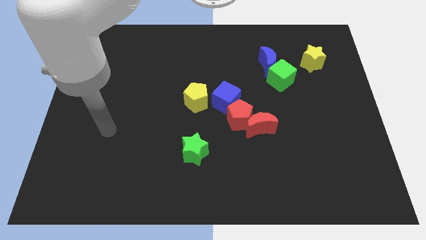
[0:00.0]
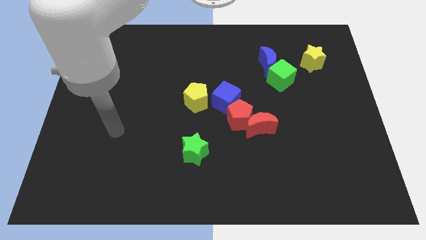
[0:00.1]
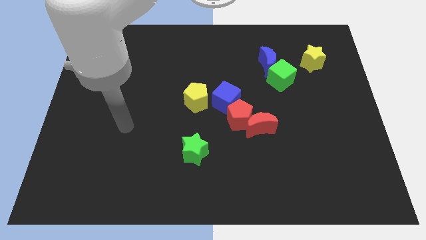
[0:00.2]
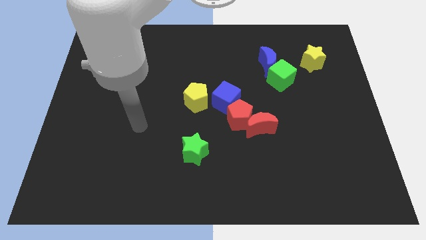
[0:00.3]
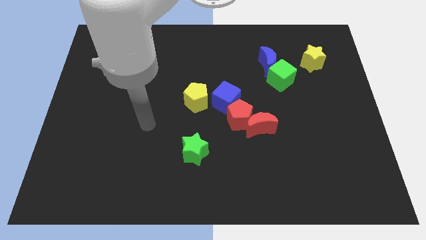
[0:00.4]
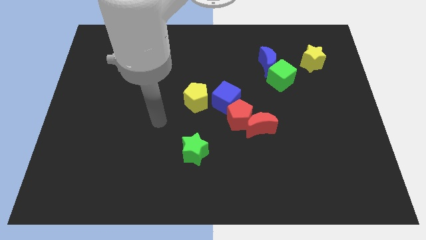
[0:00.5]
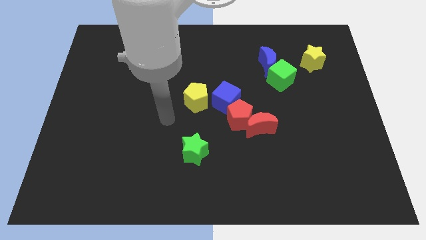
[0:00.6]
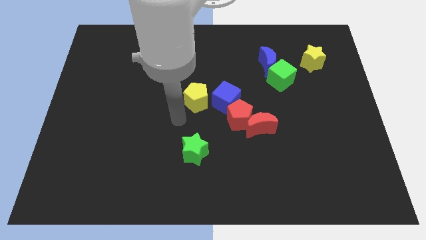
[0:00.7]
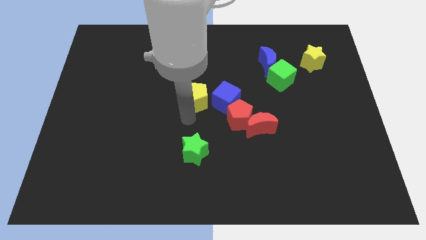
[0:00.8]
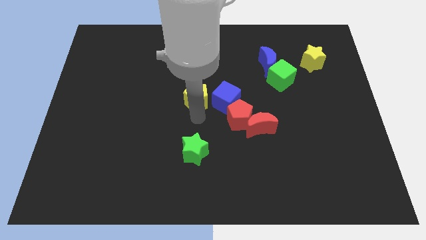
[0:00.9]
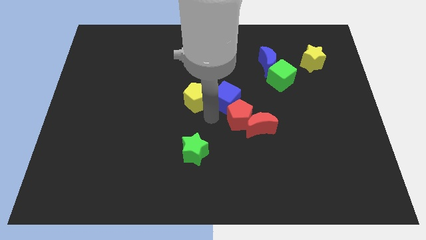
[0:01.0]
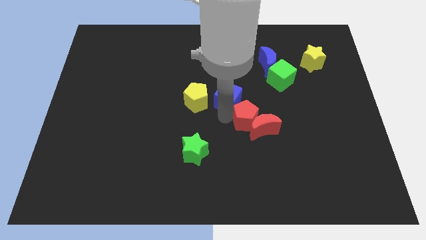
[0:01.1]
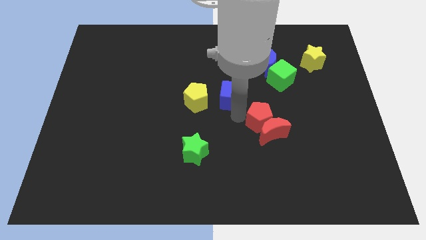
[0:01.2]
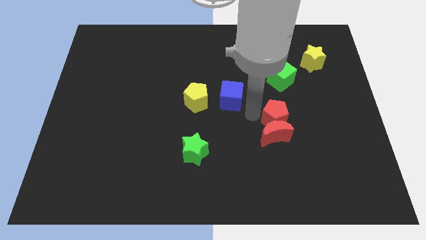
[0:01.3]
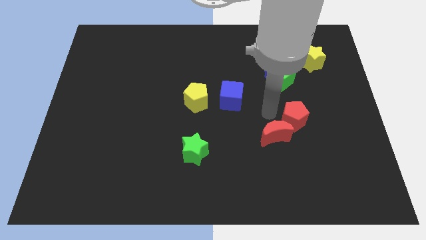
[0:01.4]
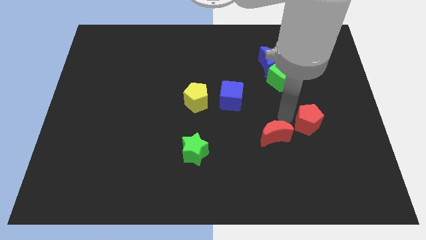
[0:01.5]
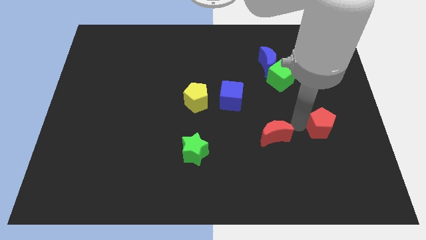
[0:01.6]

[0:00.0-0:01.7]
separate the red moon from the red pentagon

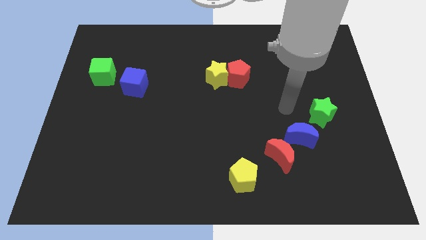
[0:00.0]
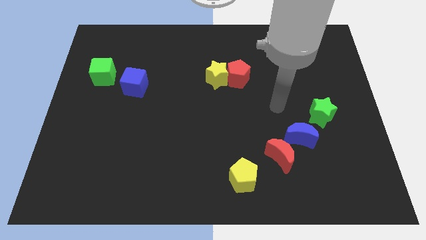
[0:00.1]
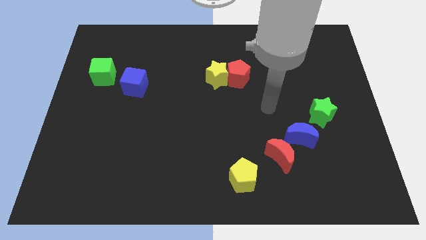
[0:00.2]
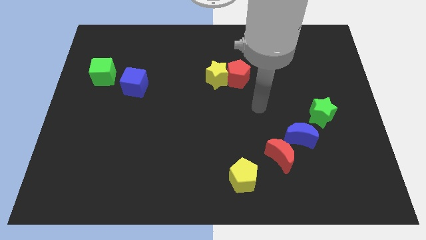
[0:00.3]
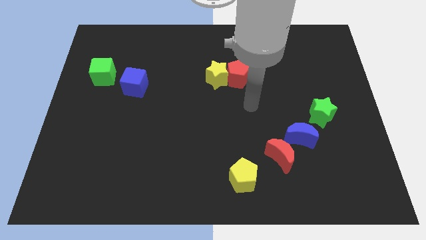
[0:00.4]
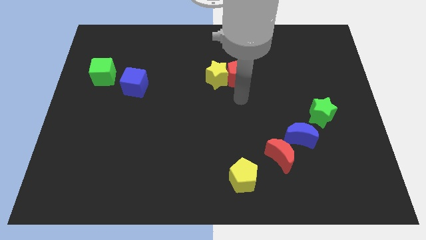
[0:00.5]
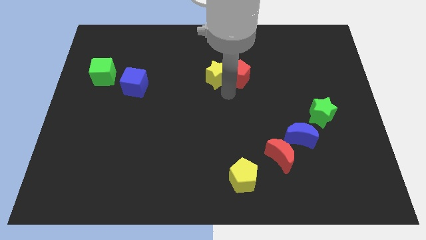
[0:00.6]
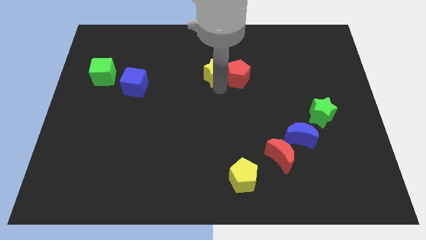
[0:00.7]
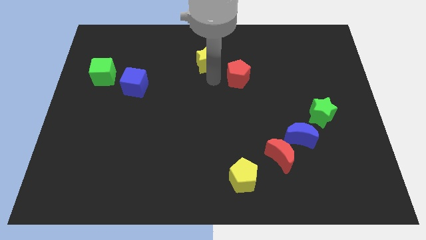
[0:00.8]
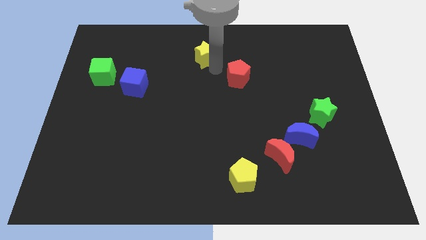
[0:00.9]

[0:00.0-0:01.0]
move the red pentagon away from the yellow star

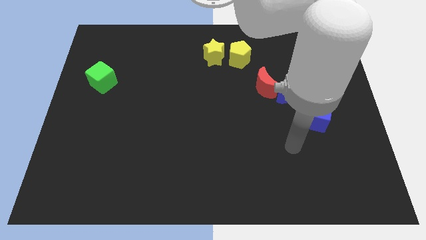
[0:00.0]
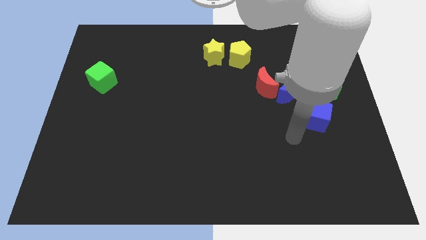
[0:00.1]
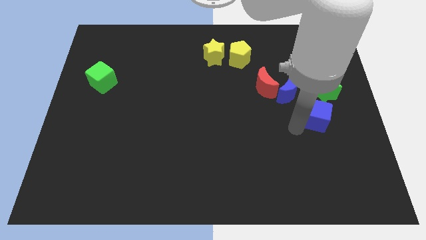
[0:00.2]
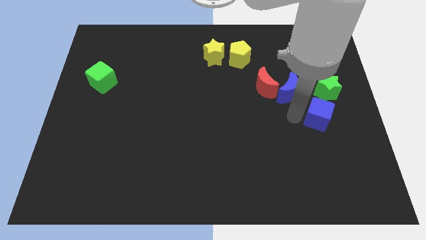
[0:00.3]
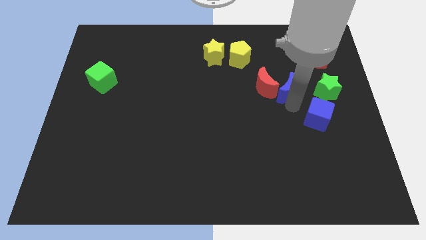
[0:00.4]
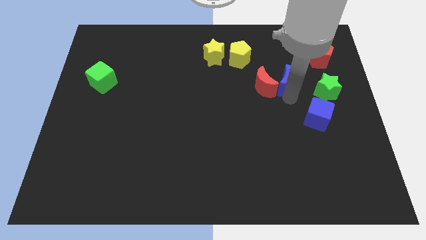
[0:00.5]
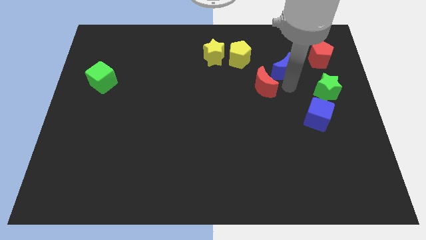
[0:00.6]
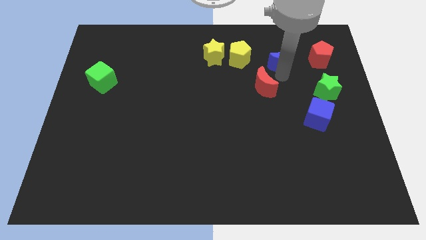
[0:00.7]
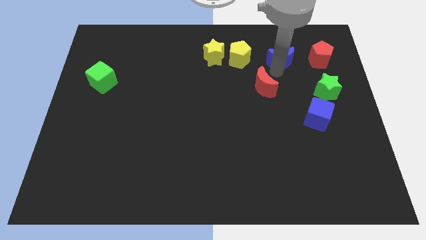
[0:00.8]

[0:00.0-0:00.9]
separate the red moon from the blue moon

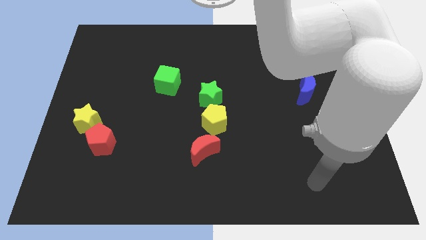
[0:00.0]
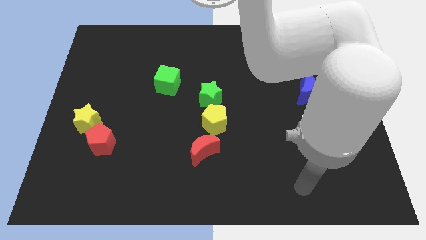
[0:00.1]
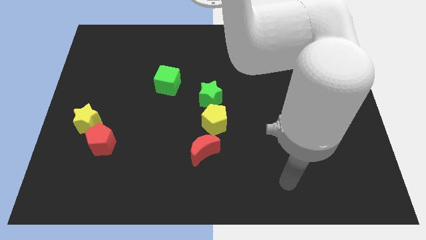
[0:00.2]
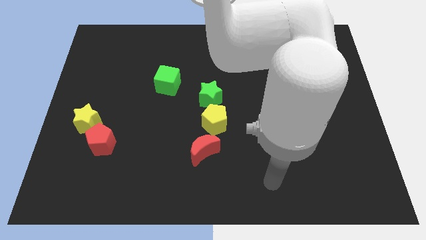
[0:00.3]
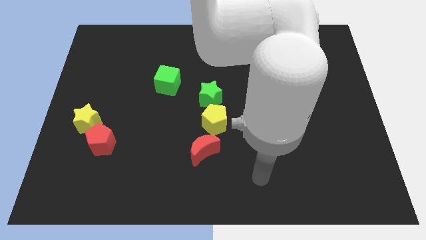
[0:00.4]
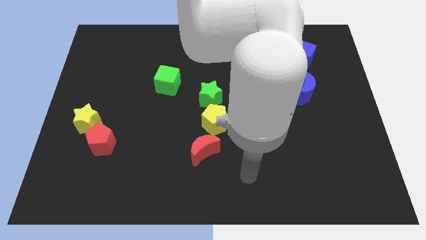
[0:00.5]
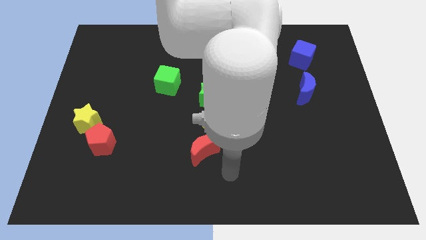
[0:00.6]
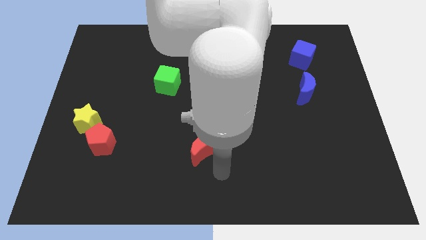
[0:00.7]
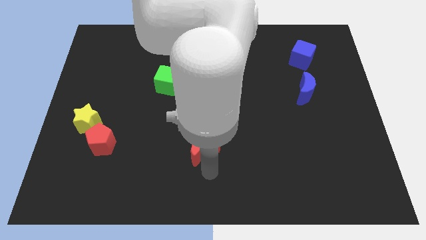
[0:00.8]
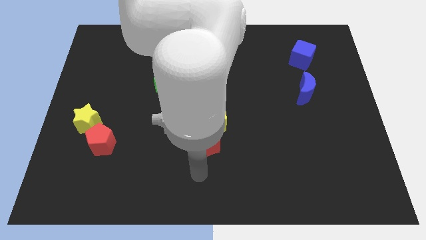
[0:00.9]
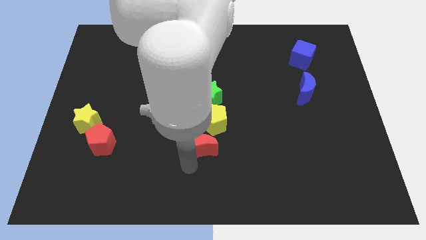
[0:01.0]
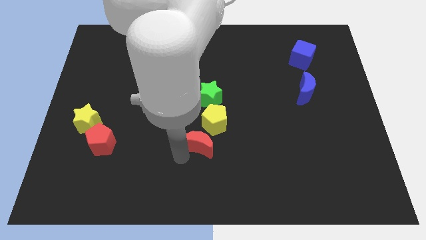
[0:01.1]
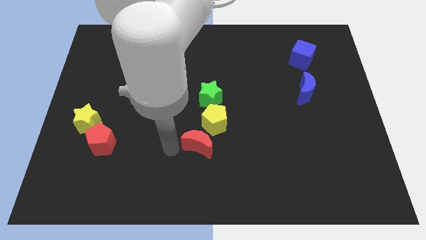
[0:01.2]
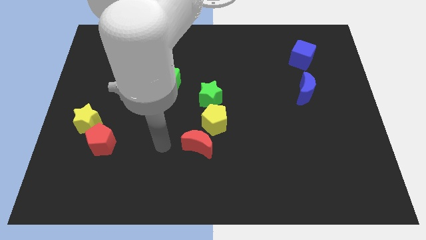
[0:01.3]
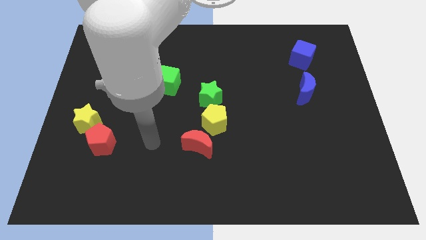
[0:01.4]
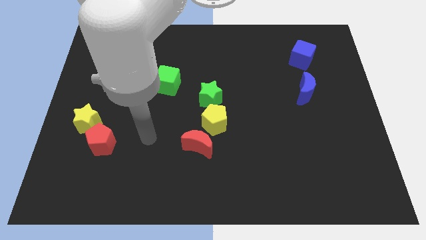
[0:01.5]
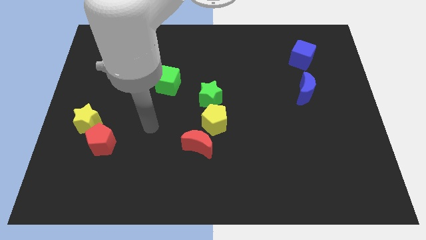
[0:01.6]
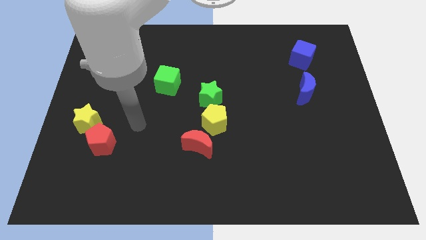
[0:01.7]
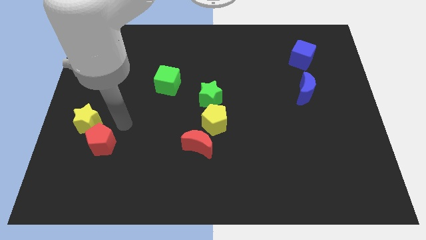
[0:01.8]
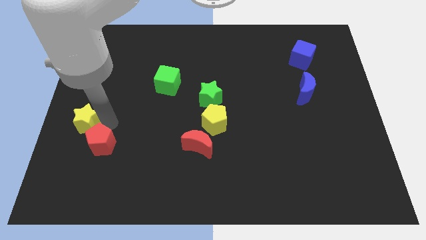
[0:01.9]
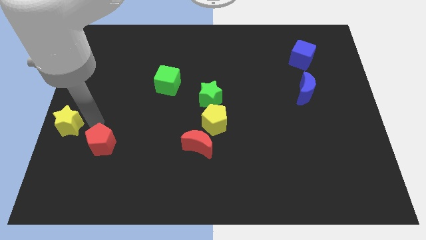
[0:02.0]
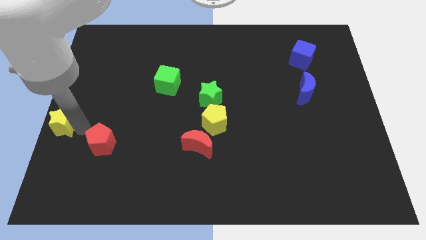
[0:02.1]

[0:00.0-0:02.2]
pull the red pentagon apart from the yellow star

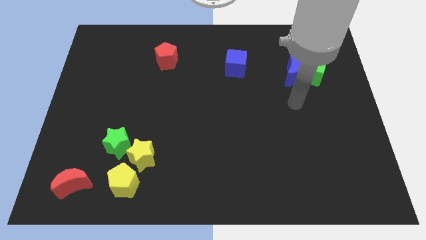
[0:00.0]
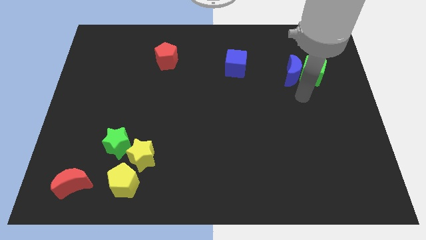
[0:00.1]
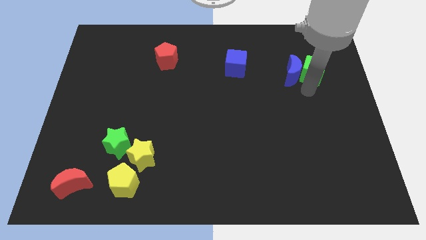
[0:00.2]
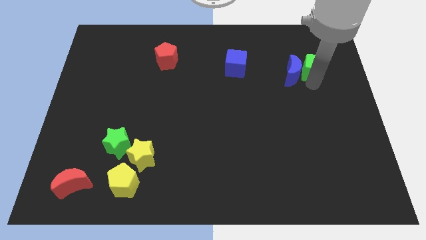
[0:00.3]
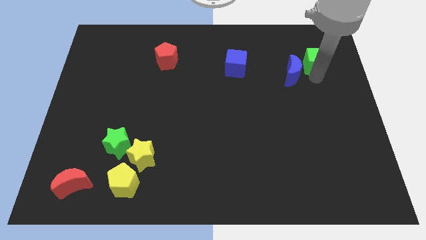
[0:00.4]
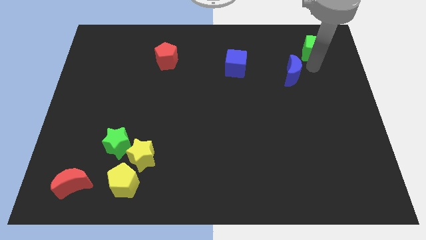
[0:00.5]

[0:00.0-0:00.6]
separate the blue moon from the green cube

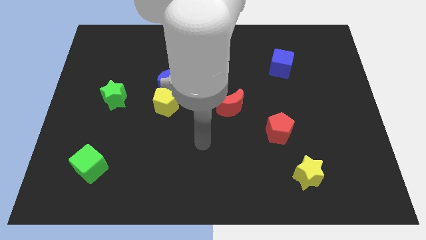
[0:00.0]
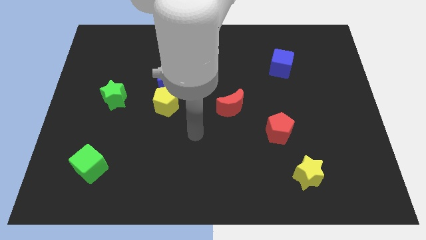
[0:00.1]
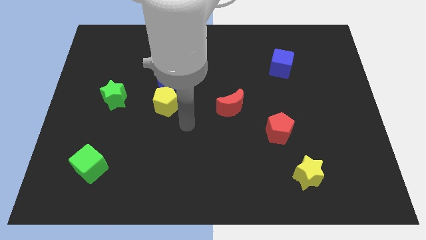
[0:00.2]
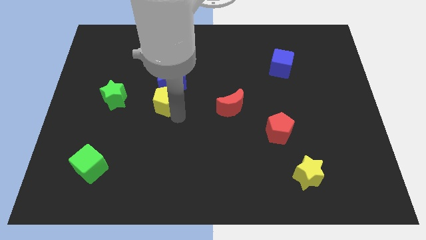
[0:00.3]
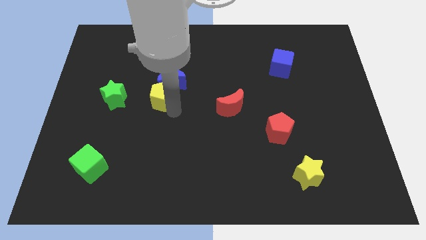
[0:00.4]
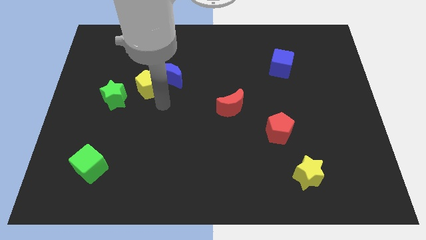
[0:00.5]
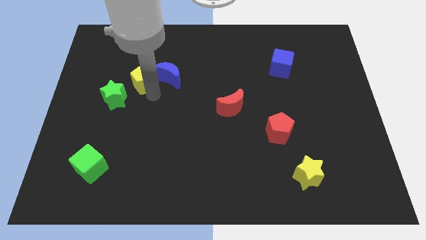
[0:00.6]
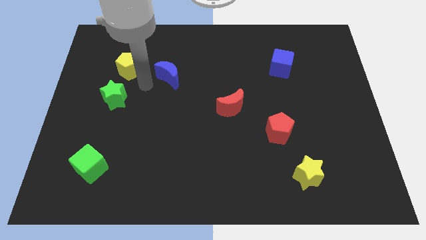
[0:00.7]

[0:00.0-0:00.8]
pull the blue moon apart from the yellow pentagon

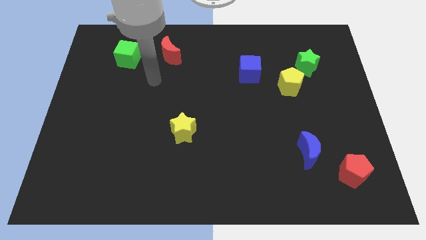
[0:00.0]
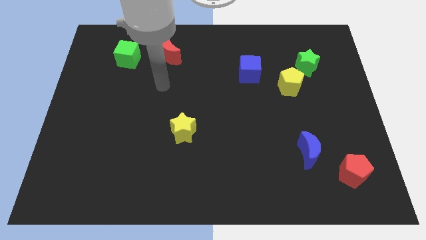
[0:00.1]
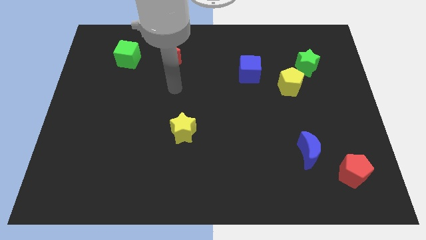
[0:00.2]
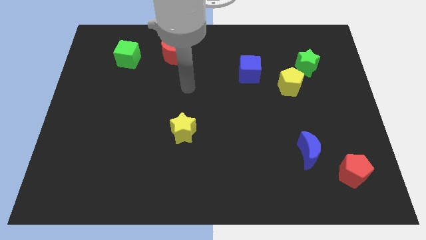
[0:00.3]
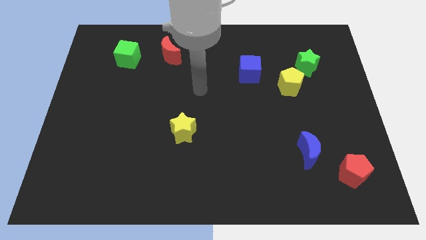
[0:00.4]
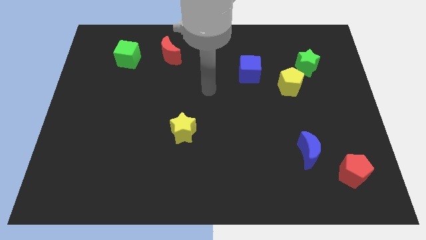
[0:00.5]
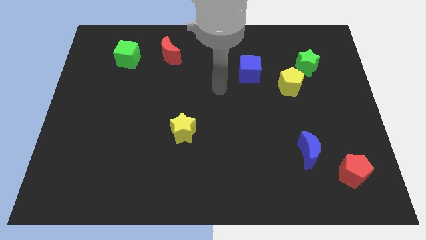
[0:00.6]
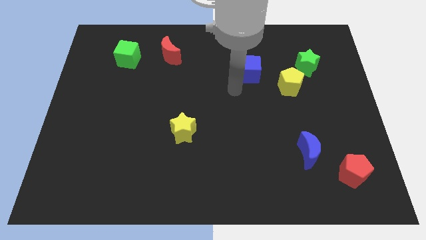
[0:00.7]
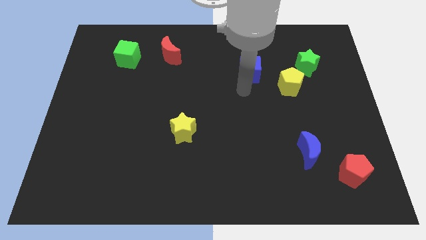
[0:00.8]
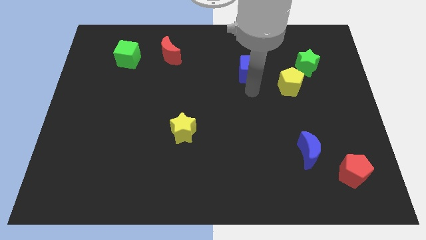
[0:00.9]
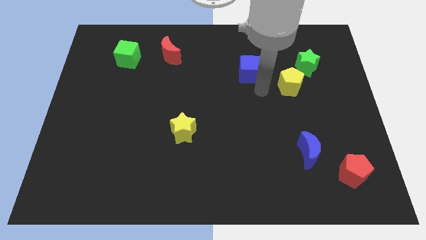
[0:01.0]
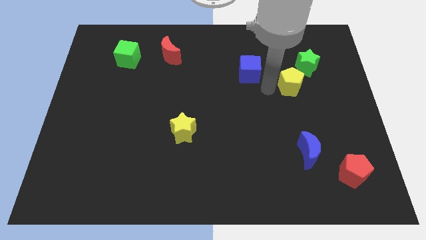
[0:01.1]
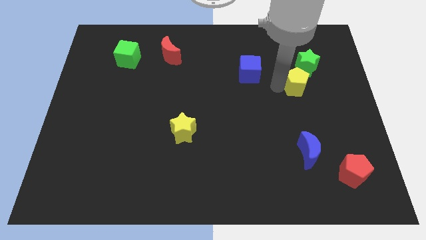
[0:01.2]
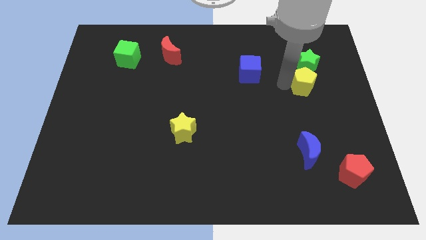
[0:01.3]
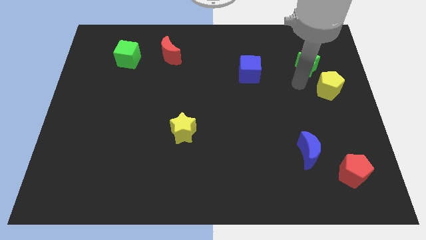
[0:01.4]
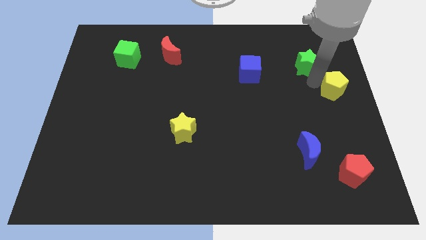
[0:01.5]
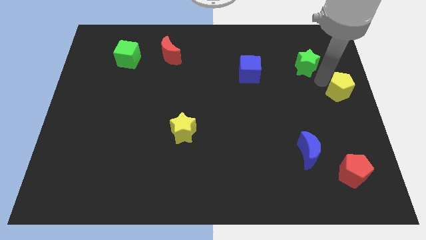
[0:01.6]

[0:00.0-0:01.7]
pull the green star apart from the yellow pentagon

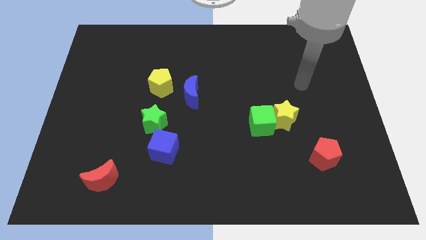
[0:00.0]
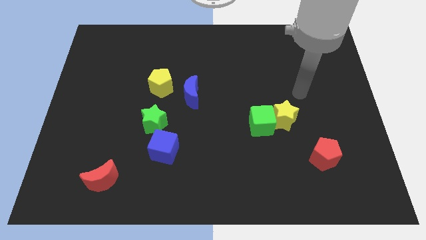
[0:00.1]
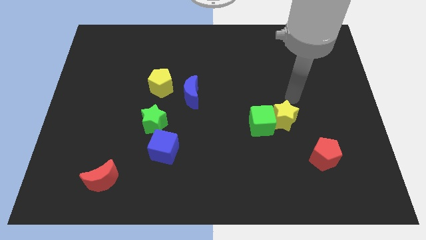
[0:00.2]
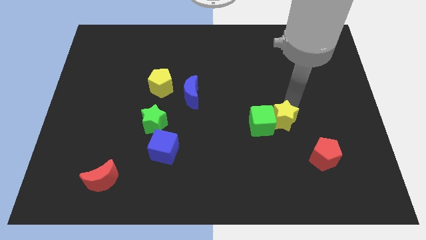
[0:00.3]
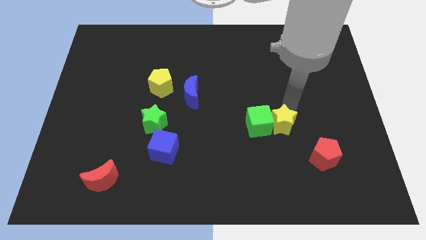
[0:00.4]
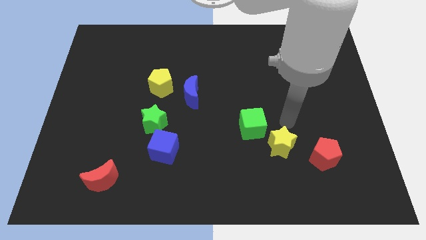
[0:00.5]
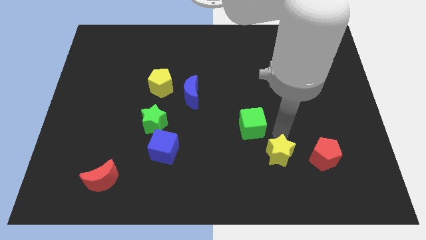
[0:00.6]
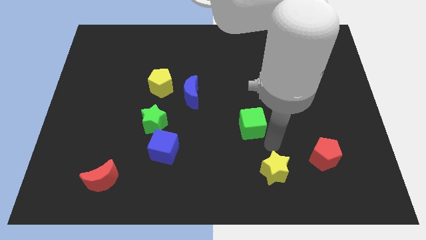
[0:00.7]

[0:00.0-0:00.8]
separate the green cube from the yellow star
